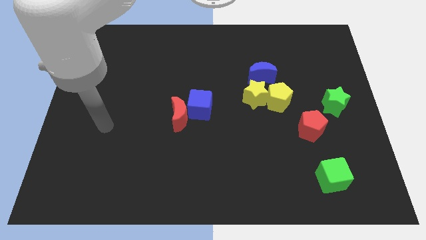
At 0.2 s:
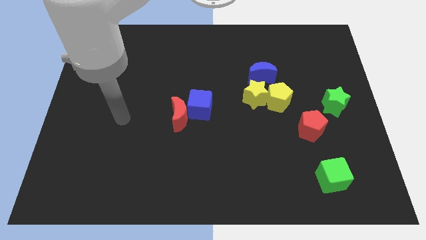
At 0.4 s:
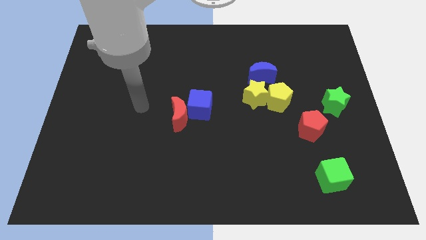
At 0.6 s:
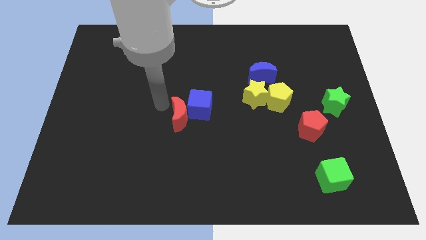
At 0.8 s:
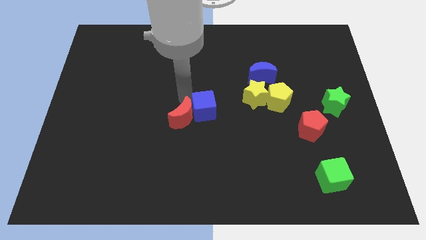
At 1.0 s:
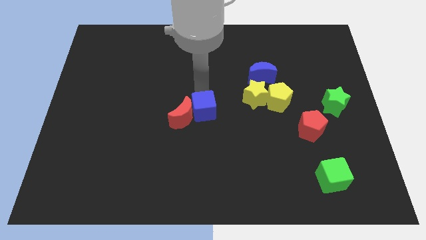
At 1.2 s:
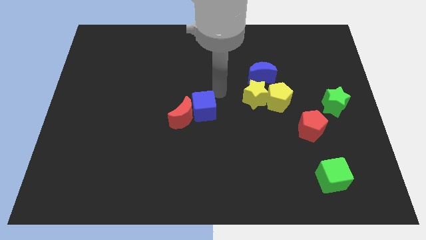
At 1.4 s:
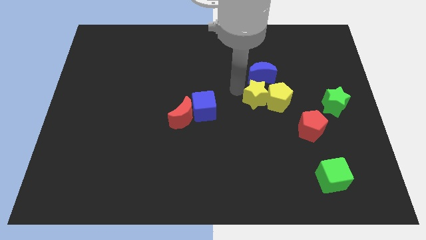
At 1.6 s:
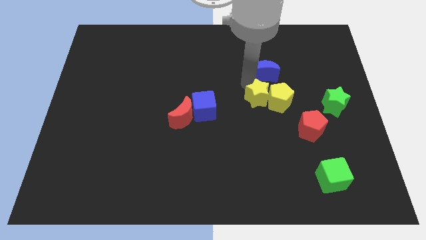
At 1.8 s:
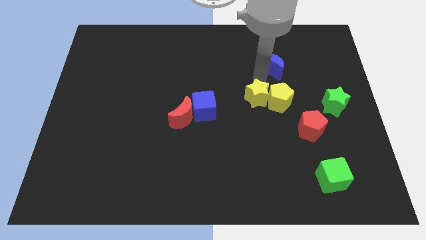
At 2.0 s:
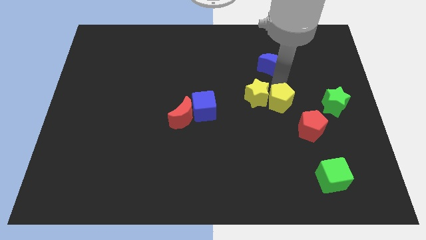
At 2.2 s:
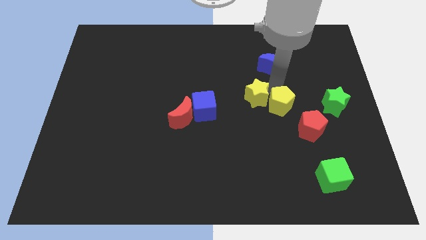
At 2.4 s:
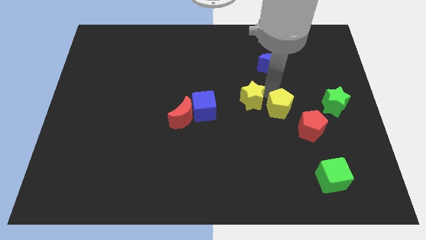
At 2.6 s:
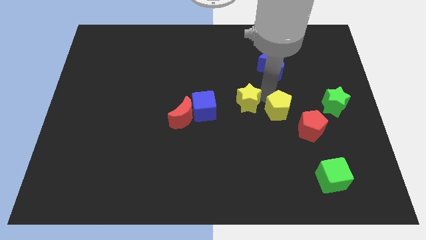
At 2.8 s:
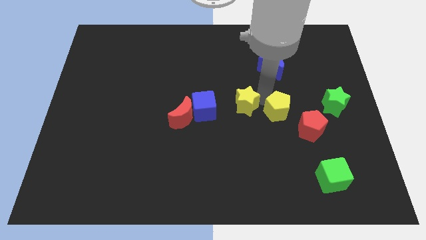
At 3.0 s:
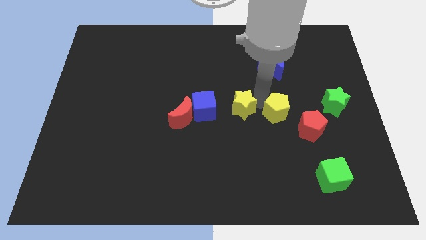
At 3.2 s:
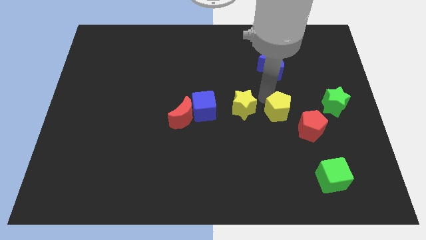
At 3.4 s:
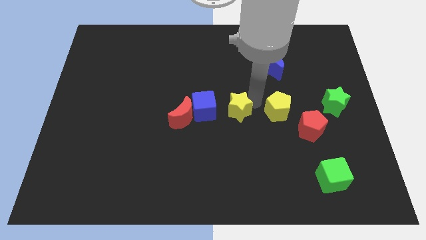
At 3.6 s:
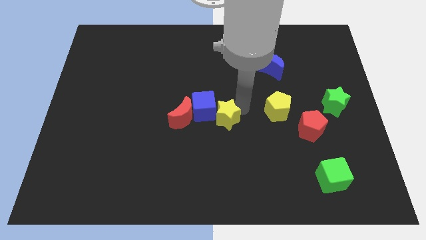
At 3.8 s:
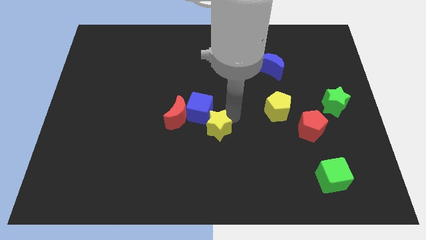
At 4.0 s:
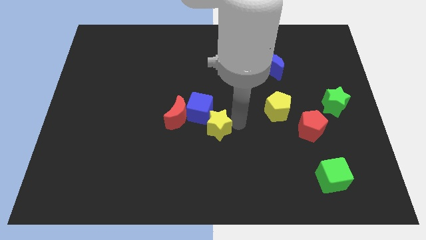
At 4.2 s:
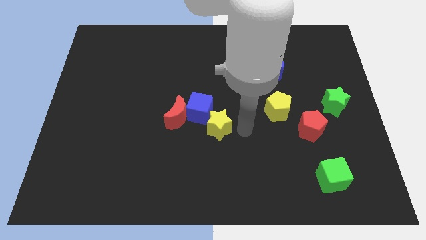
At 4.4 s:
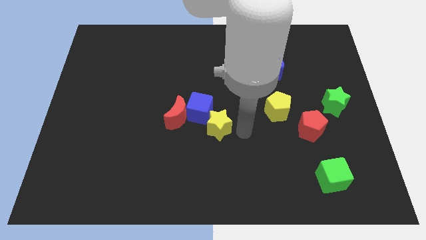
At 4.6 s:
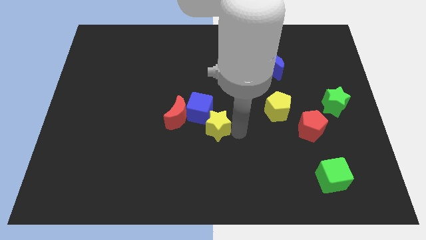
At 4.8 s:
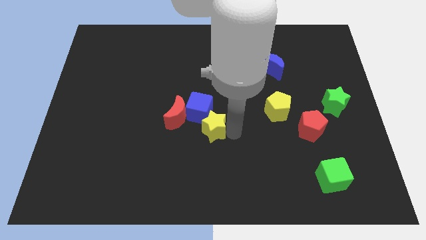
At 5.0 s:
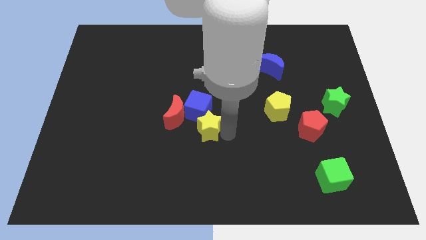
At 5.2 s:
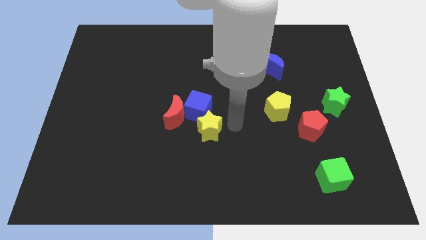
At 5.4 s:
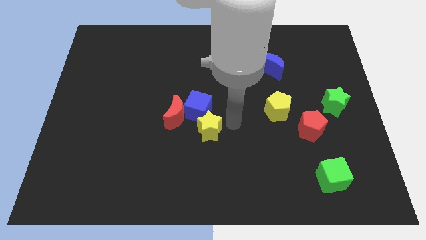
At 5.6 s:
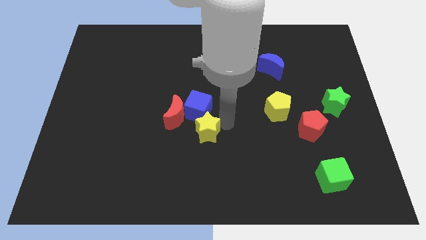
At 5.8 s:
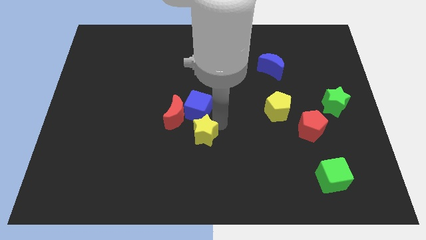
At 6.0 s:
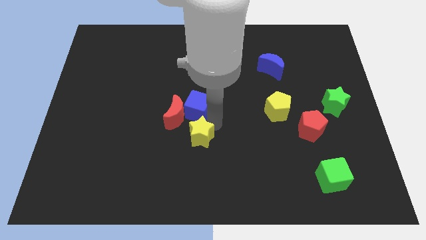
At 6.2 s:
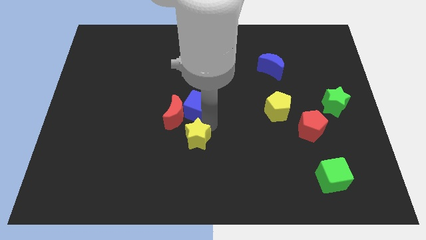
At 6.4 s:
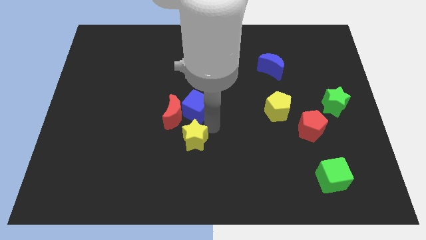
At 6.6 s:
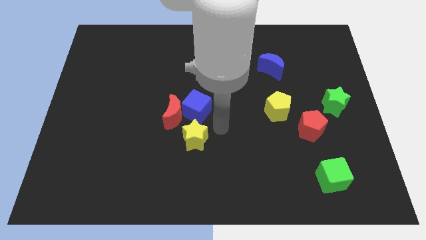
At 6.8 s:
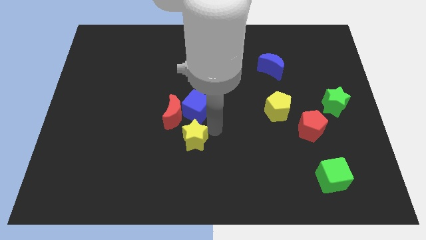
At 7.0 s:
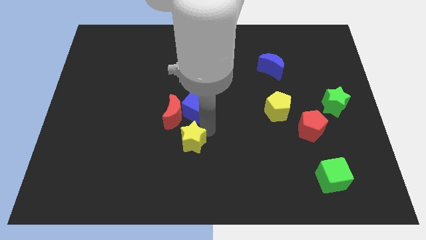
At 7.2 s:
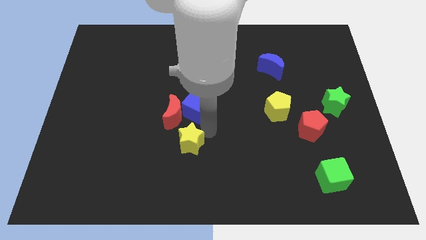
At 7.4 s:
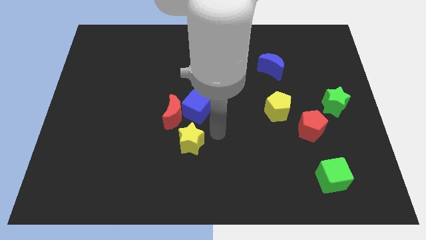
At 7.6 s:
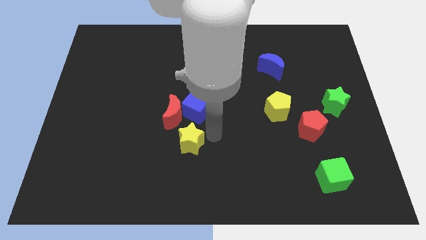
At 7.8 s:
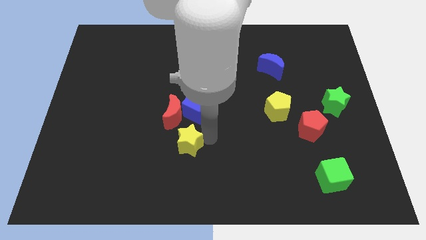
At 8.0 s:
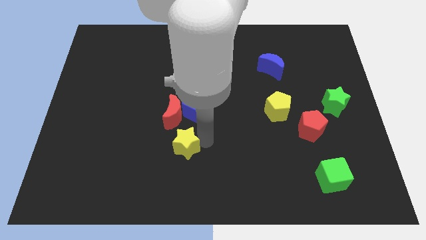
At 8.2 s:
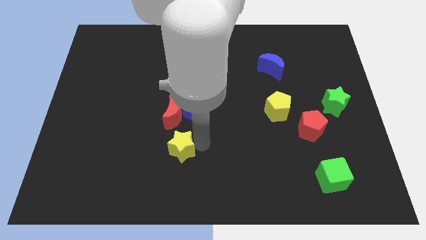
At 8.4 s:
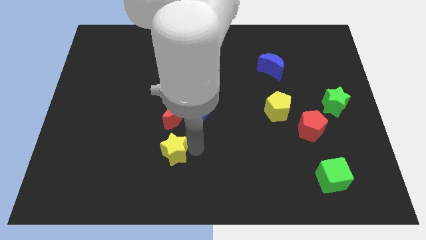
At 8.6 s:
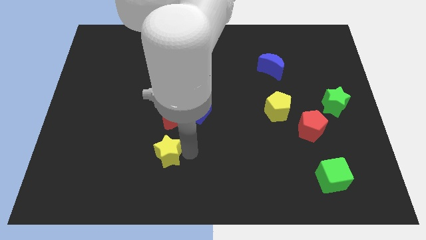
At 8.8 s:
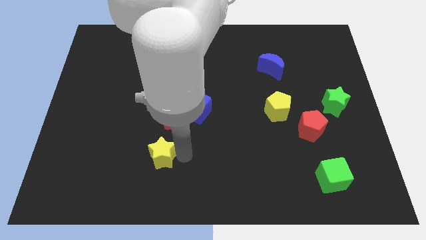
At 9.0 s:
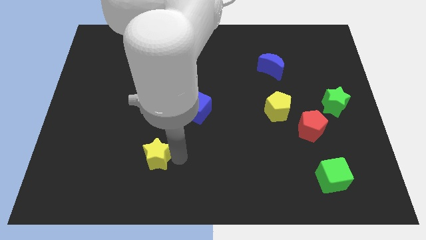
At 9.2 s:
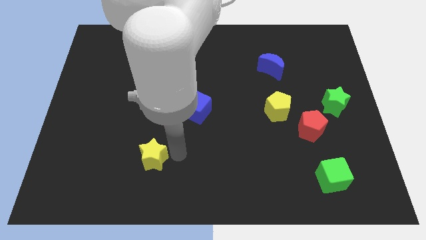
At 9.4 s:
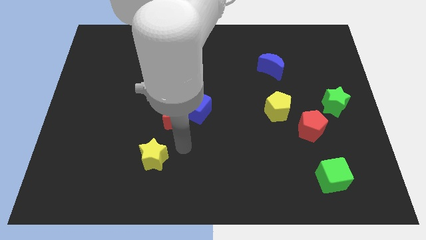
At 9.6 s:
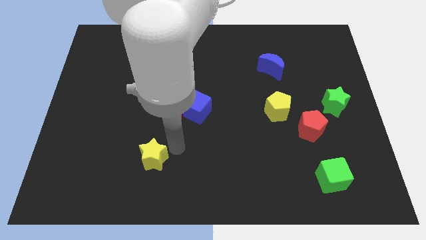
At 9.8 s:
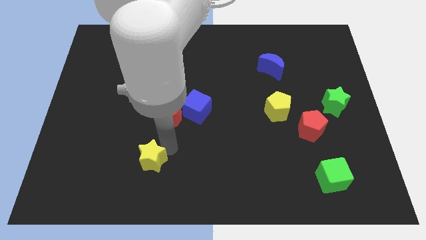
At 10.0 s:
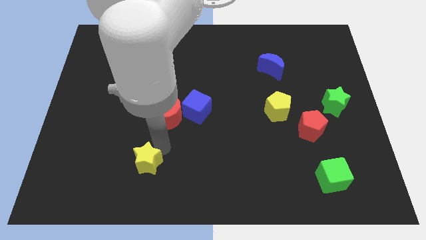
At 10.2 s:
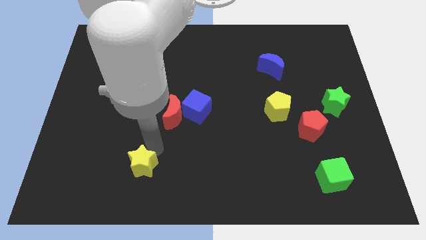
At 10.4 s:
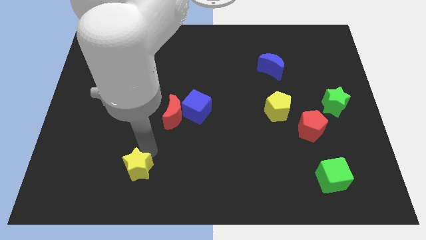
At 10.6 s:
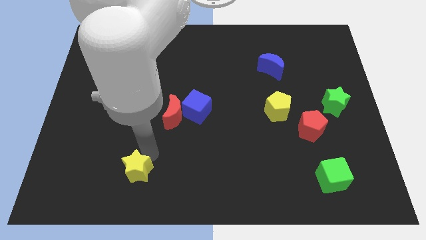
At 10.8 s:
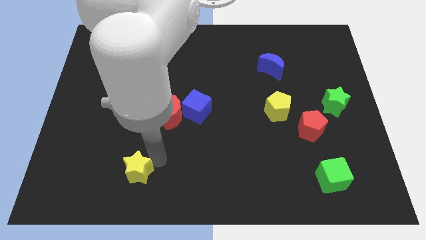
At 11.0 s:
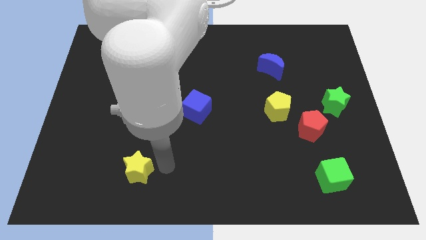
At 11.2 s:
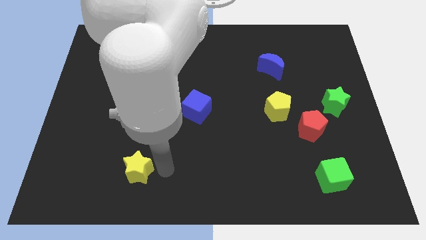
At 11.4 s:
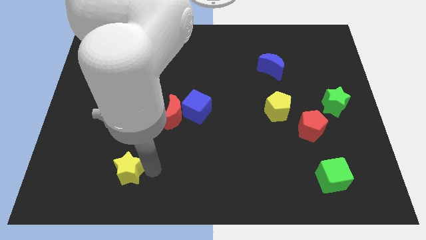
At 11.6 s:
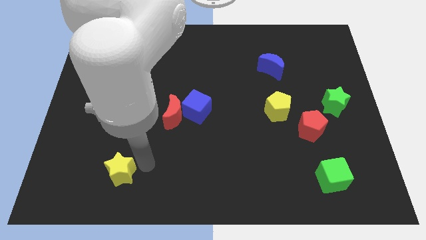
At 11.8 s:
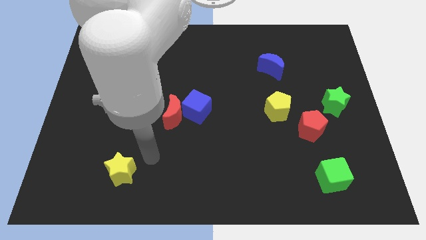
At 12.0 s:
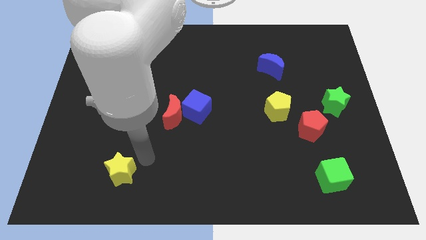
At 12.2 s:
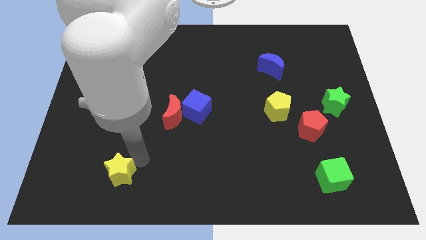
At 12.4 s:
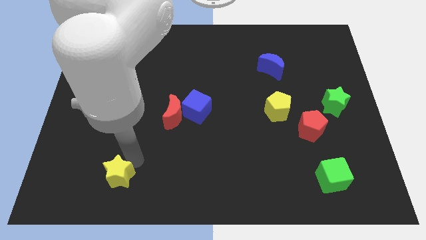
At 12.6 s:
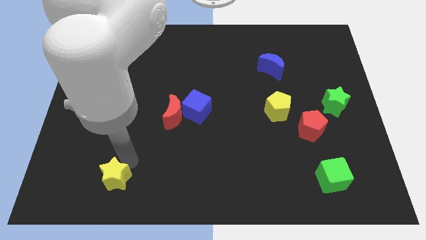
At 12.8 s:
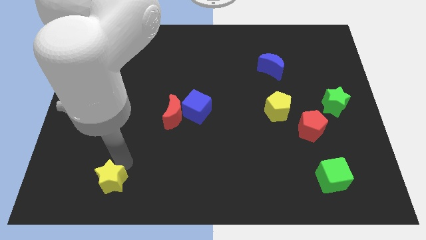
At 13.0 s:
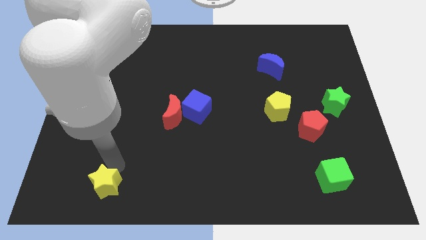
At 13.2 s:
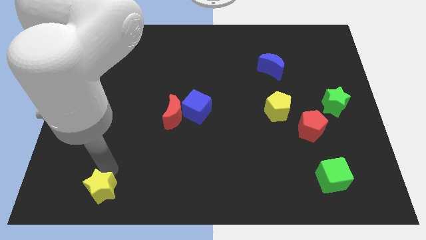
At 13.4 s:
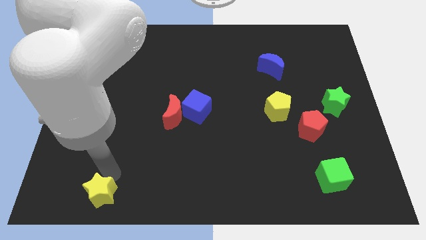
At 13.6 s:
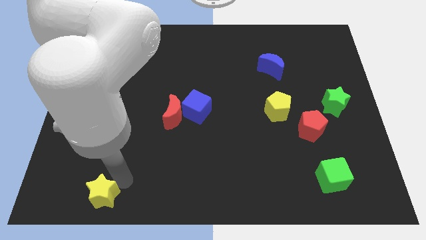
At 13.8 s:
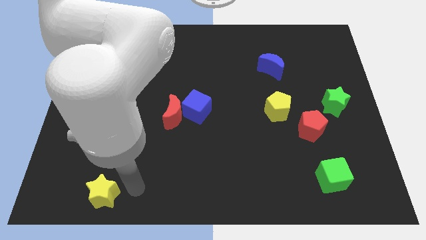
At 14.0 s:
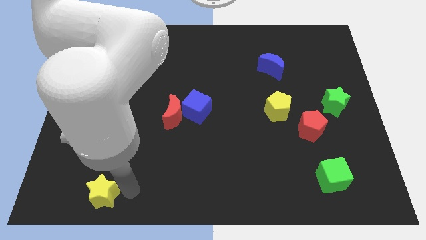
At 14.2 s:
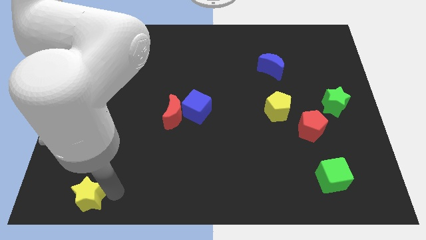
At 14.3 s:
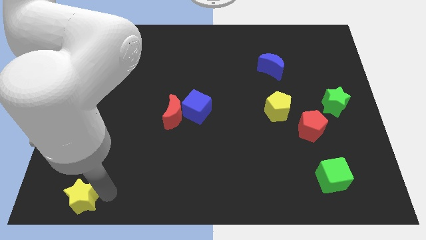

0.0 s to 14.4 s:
move the yellow star to the lower left corner

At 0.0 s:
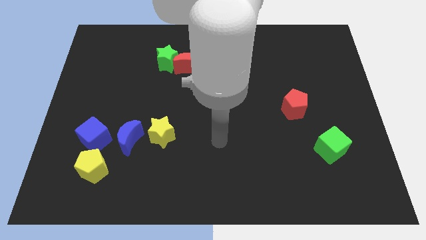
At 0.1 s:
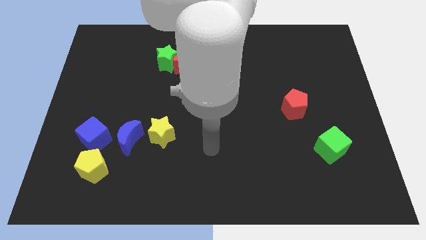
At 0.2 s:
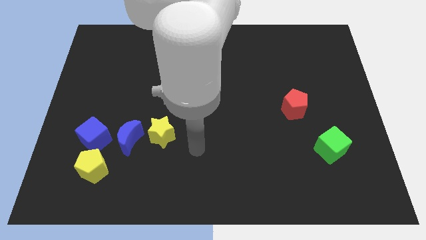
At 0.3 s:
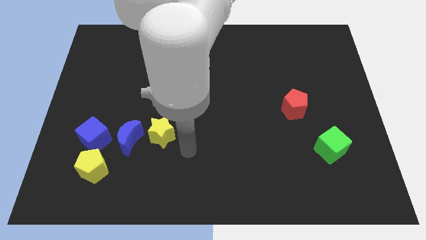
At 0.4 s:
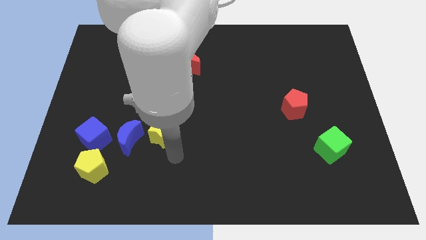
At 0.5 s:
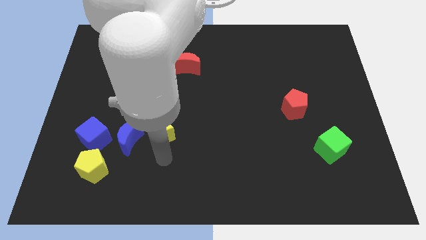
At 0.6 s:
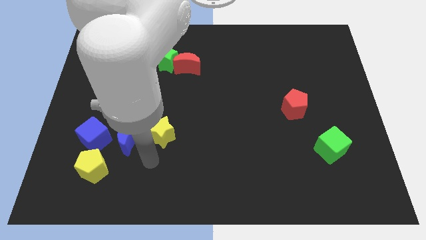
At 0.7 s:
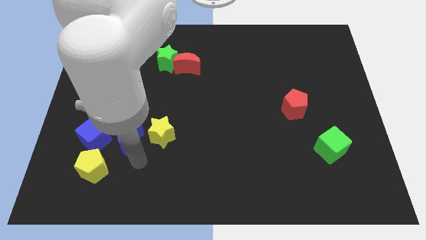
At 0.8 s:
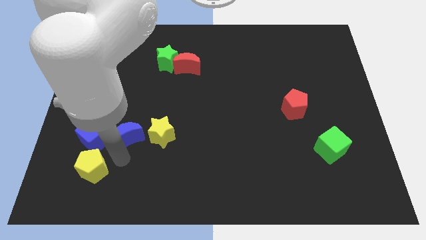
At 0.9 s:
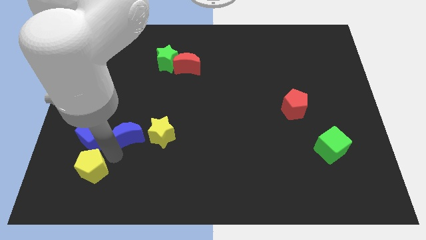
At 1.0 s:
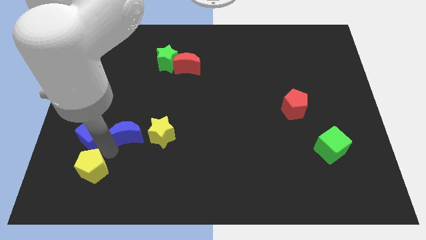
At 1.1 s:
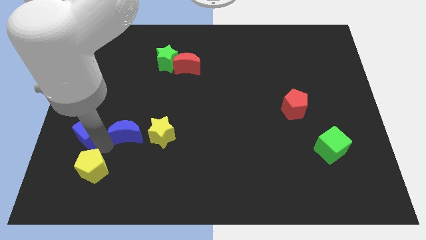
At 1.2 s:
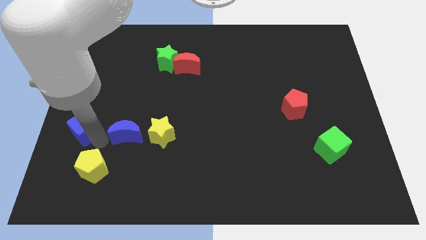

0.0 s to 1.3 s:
slide the blue cube to the left side
